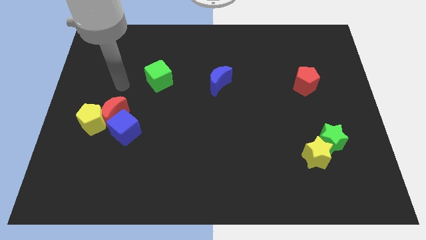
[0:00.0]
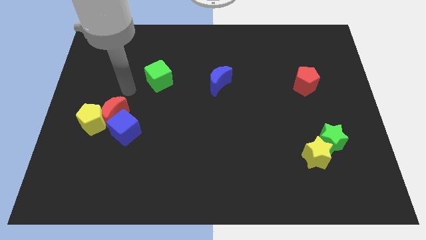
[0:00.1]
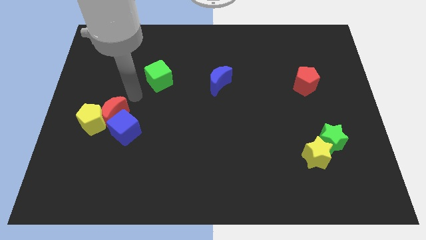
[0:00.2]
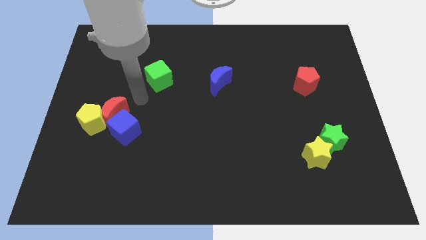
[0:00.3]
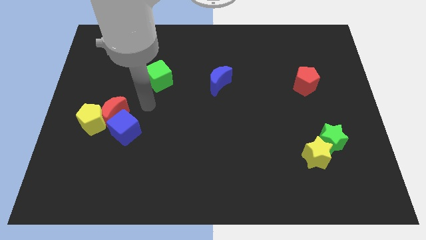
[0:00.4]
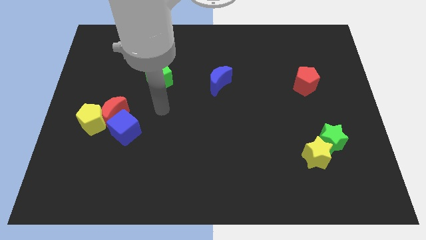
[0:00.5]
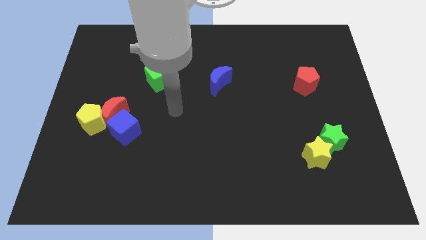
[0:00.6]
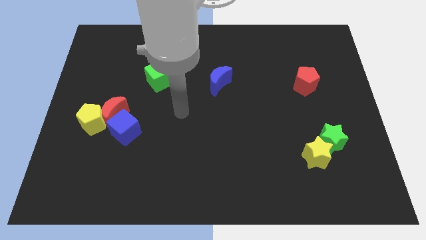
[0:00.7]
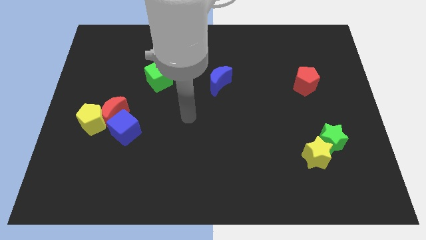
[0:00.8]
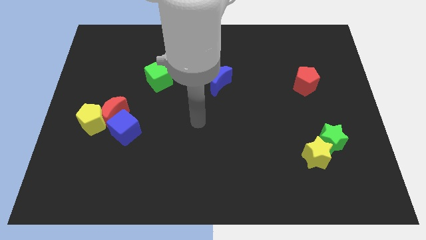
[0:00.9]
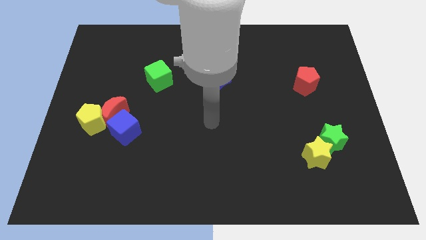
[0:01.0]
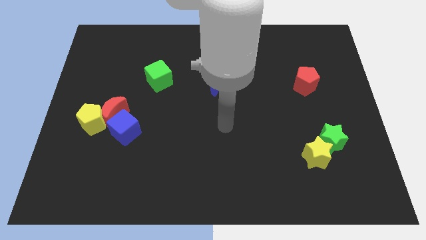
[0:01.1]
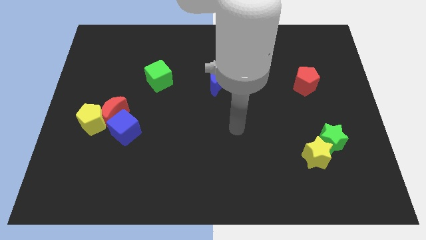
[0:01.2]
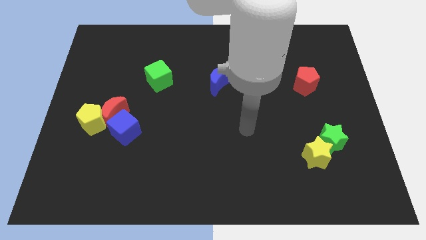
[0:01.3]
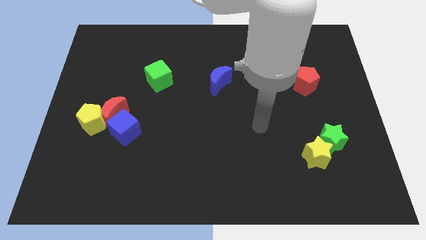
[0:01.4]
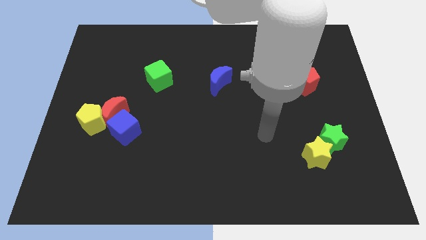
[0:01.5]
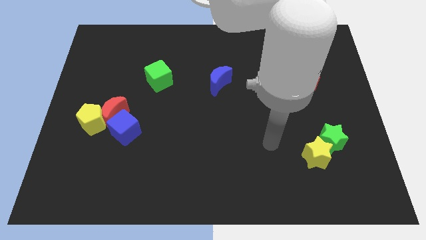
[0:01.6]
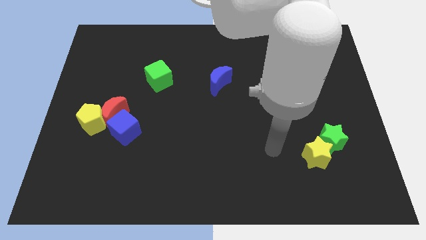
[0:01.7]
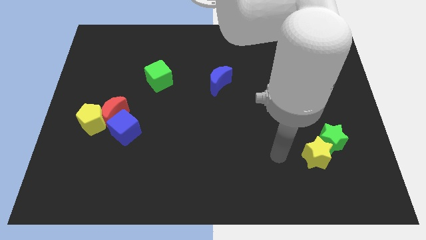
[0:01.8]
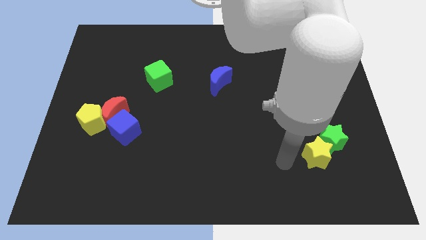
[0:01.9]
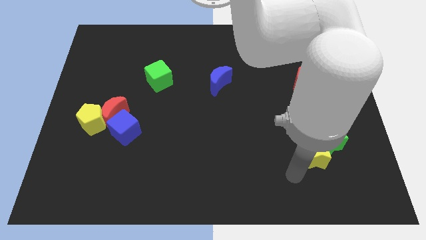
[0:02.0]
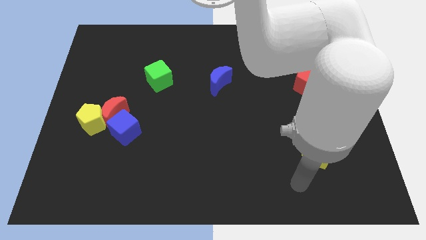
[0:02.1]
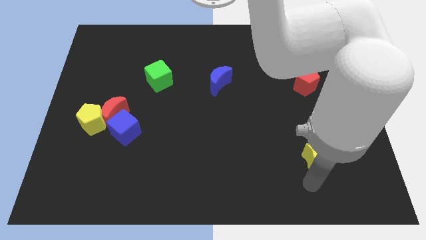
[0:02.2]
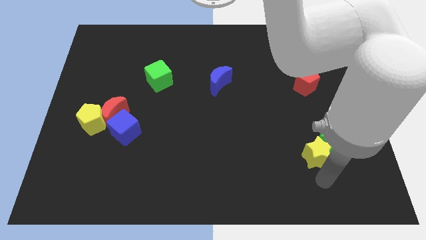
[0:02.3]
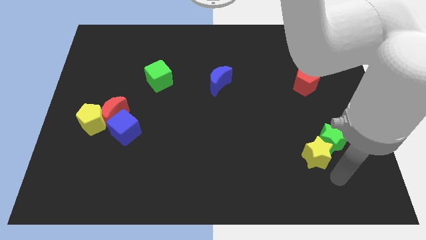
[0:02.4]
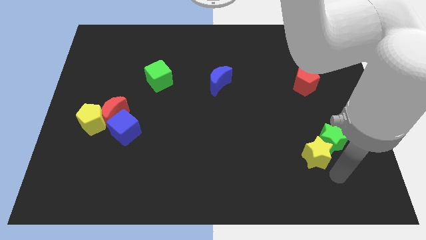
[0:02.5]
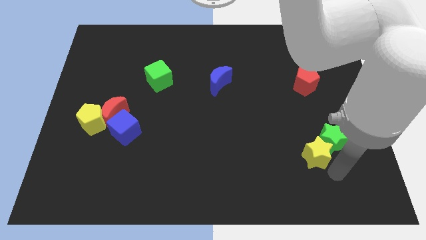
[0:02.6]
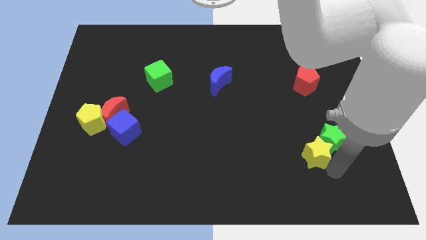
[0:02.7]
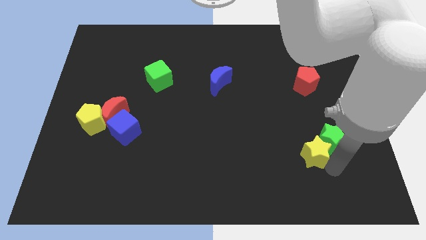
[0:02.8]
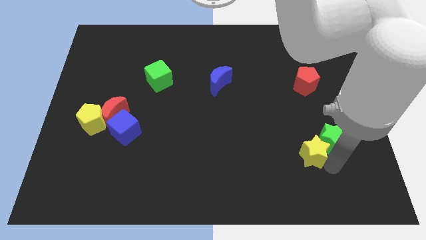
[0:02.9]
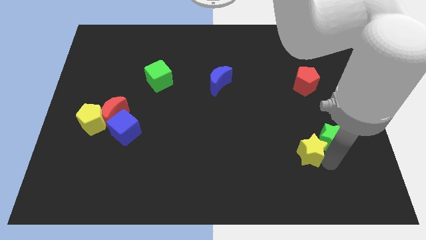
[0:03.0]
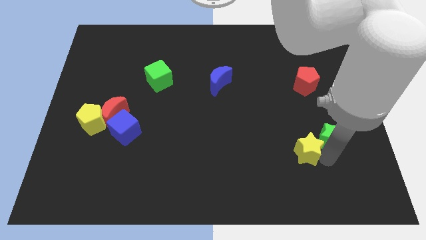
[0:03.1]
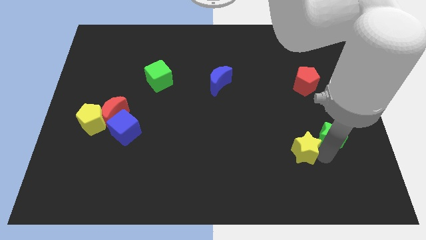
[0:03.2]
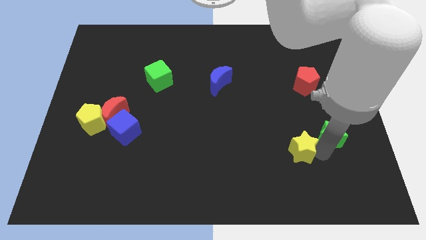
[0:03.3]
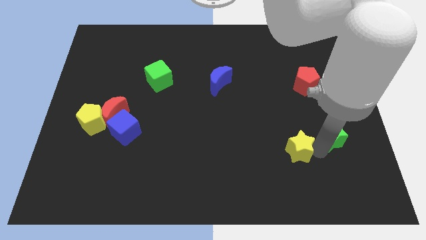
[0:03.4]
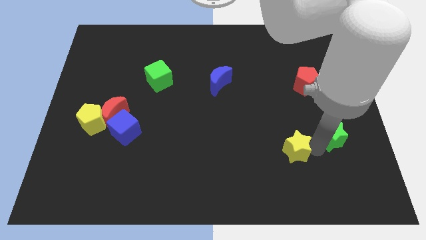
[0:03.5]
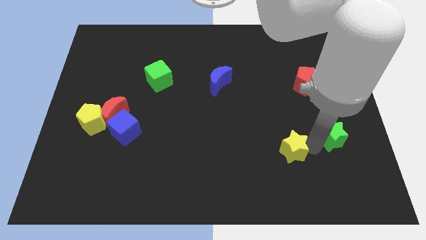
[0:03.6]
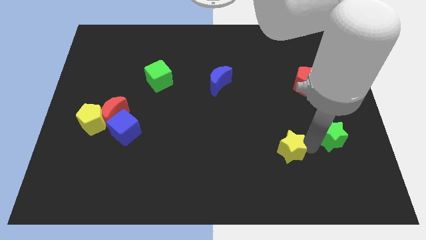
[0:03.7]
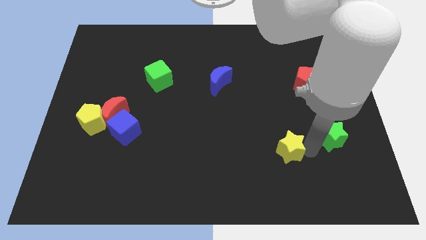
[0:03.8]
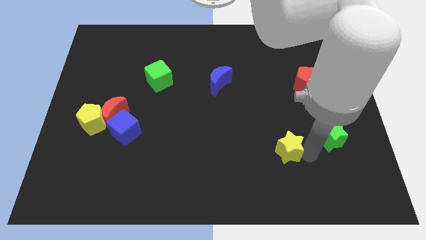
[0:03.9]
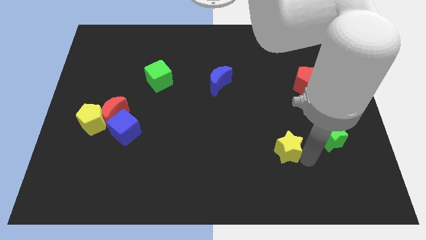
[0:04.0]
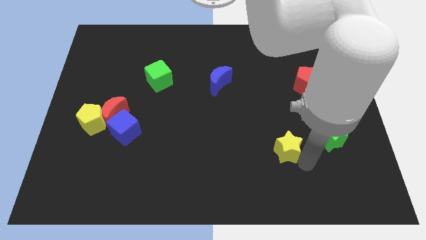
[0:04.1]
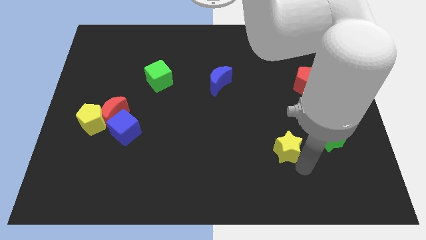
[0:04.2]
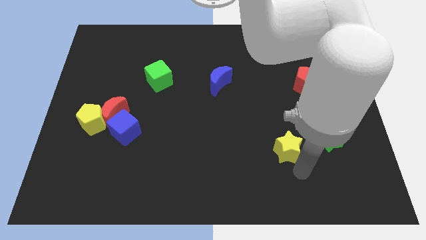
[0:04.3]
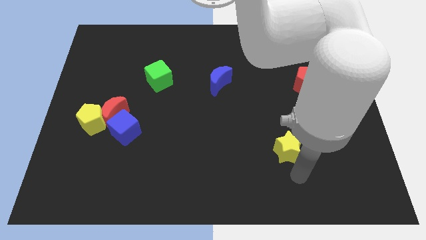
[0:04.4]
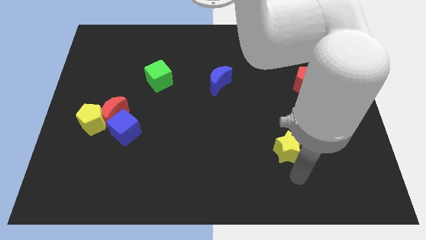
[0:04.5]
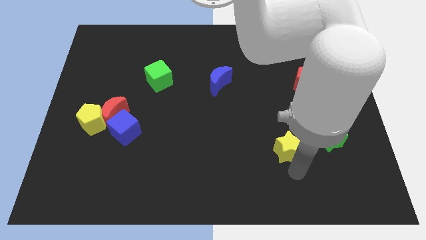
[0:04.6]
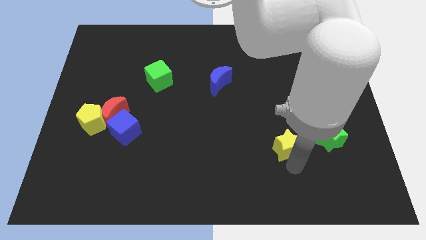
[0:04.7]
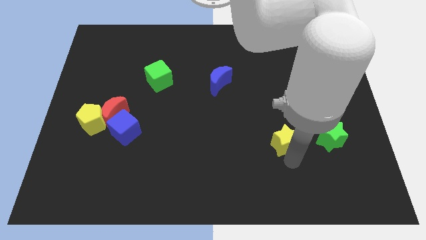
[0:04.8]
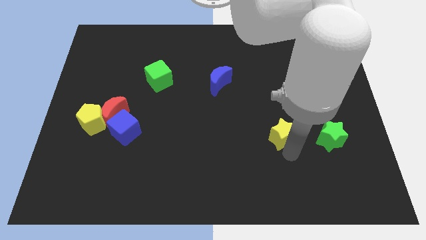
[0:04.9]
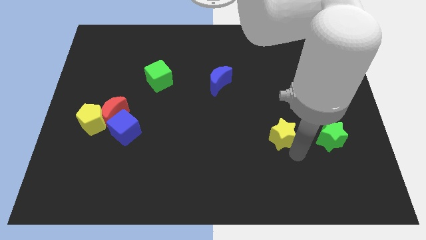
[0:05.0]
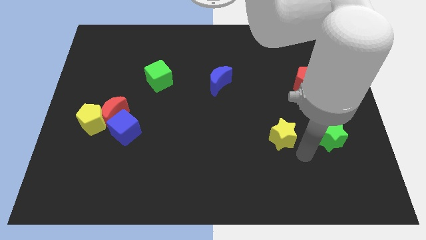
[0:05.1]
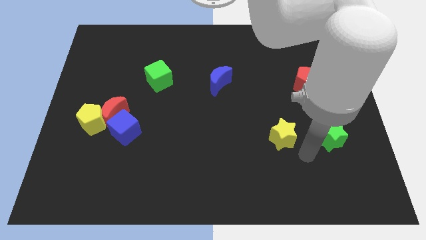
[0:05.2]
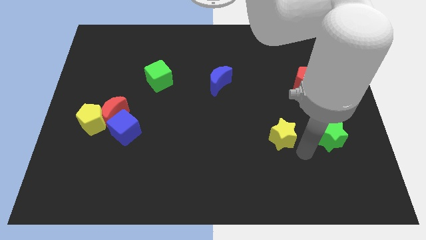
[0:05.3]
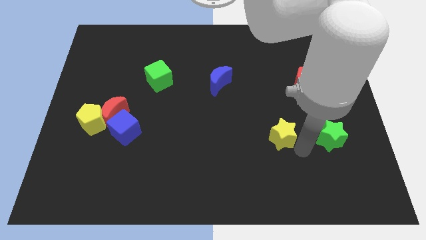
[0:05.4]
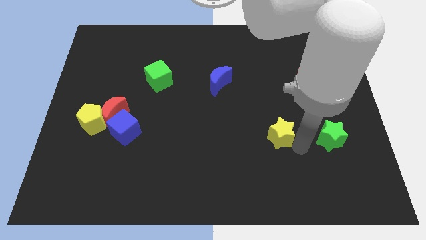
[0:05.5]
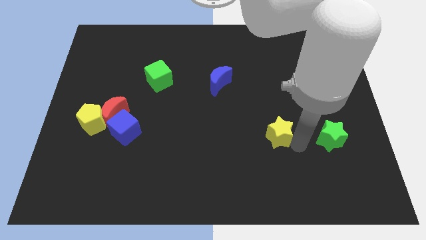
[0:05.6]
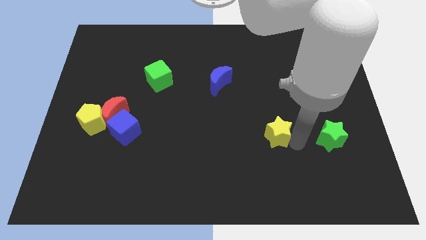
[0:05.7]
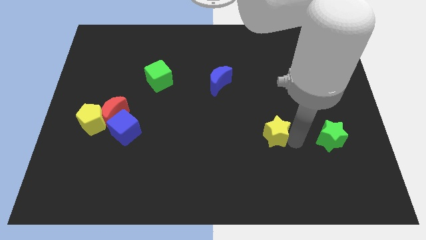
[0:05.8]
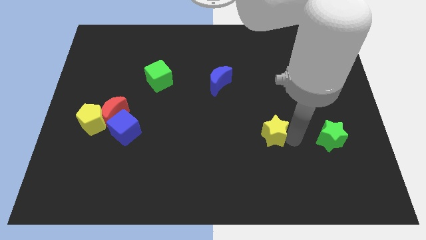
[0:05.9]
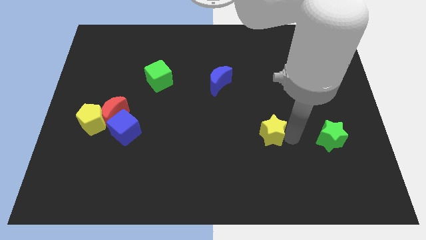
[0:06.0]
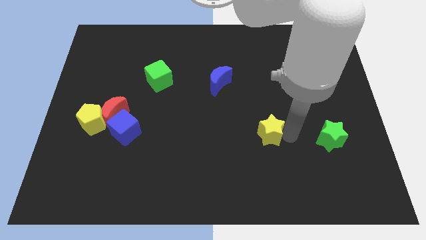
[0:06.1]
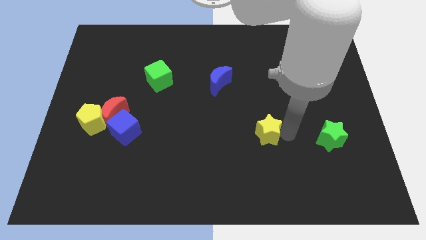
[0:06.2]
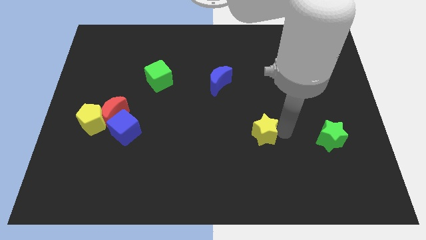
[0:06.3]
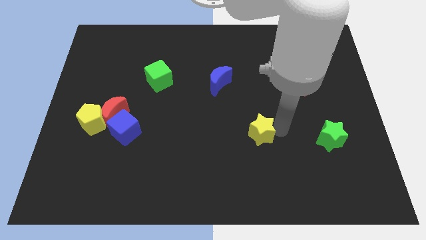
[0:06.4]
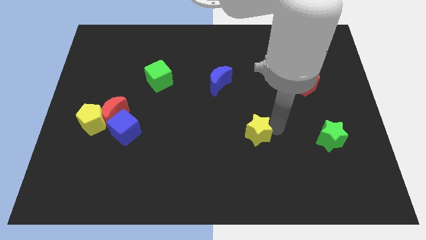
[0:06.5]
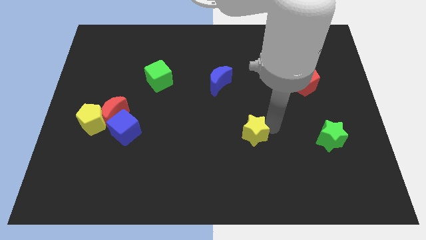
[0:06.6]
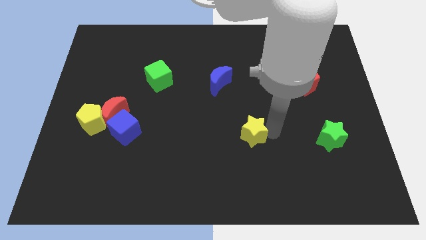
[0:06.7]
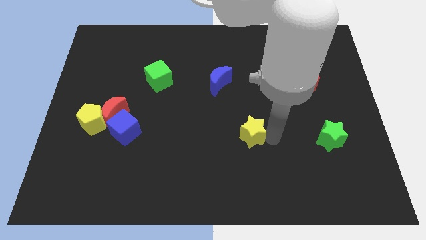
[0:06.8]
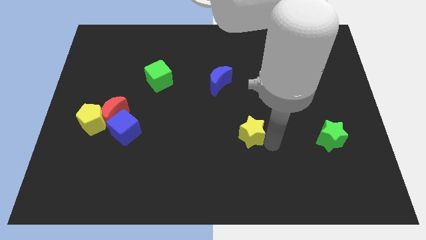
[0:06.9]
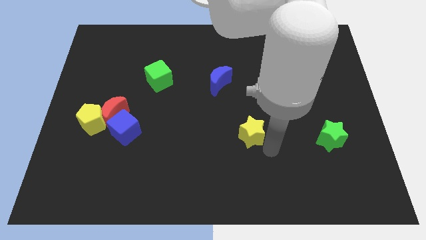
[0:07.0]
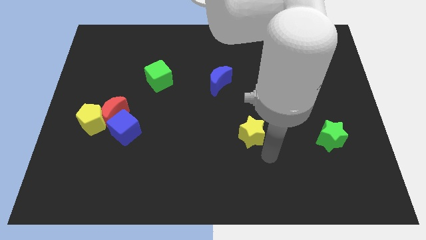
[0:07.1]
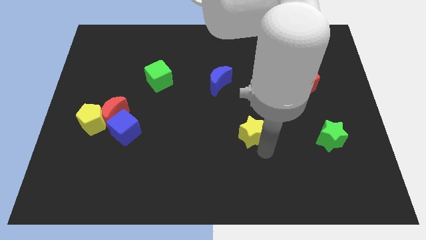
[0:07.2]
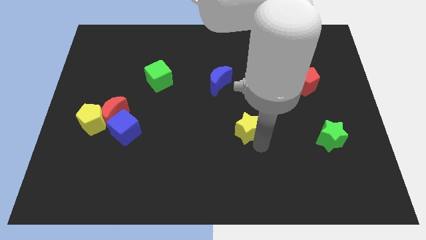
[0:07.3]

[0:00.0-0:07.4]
put the yellow star to the center of the board
